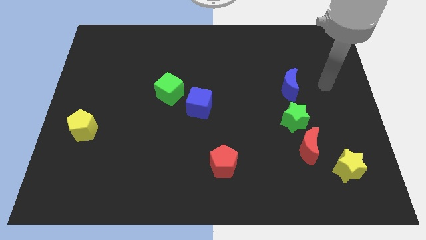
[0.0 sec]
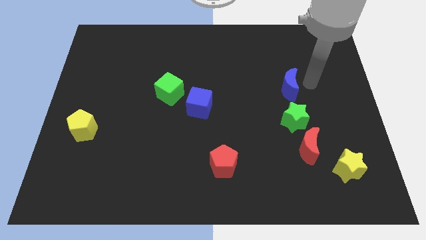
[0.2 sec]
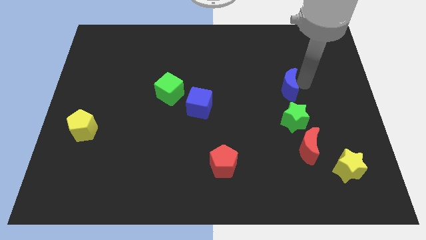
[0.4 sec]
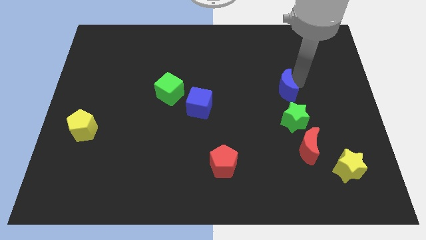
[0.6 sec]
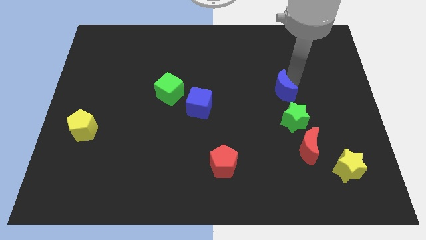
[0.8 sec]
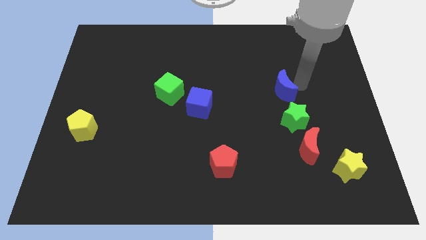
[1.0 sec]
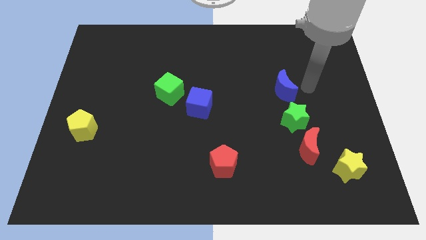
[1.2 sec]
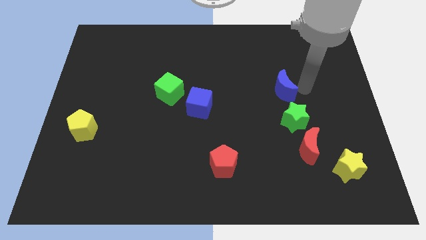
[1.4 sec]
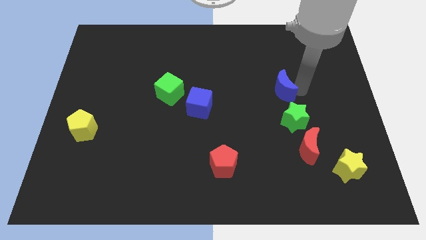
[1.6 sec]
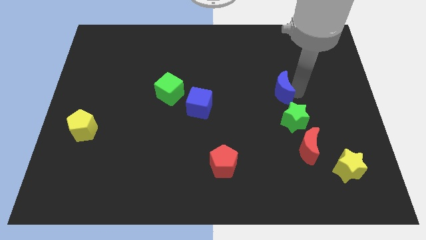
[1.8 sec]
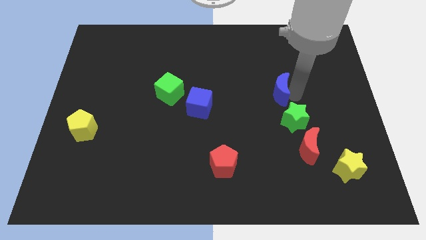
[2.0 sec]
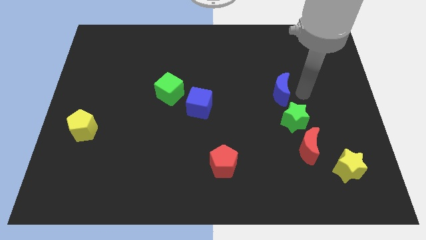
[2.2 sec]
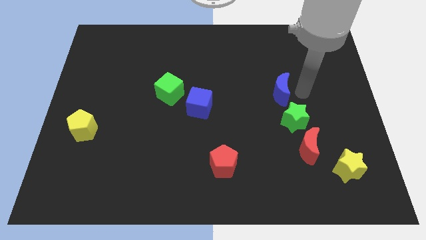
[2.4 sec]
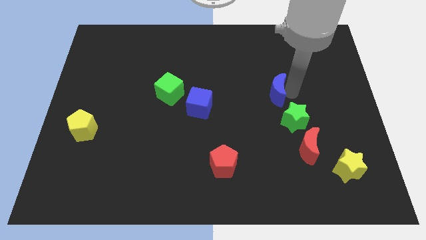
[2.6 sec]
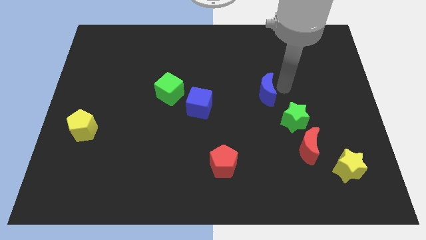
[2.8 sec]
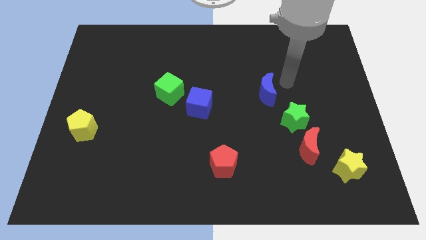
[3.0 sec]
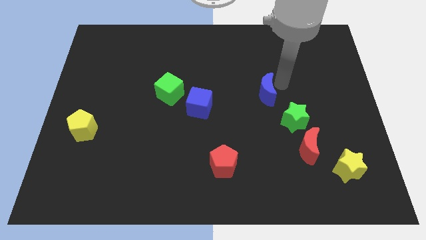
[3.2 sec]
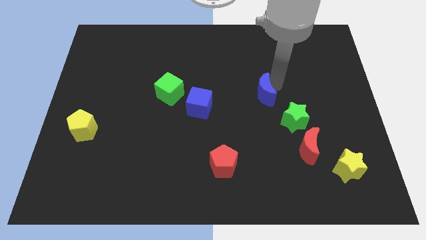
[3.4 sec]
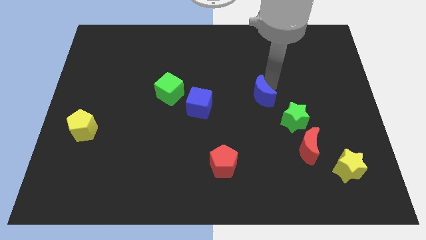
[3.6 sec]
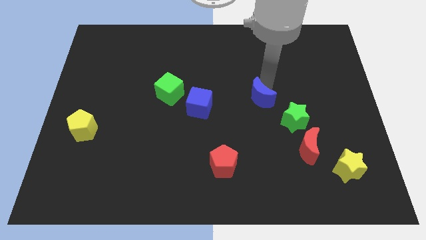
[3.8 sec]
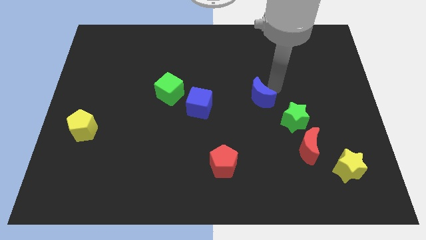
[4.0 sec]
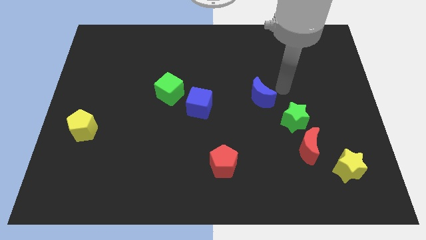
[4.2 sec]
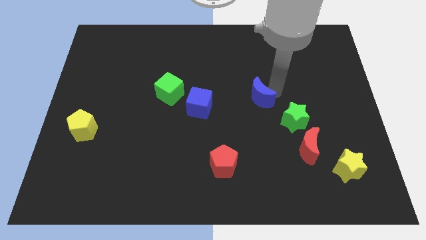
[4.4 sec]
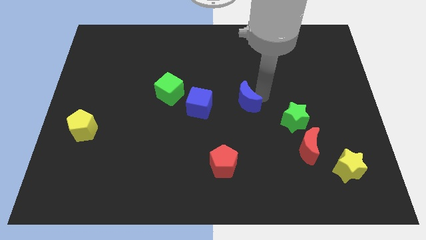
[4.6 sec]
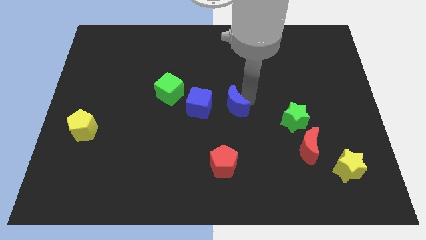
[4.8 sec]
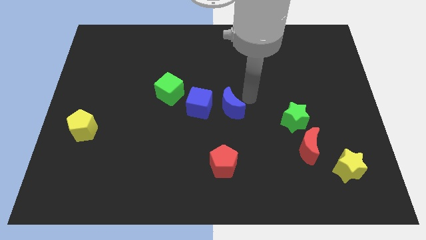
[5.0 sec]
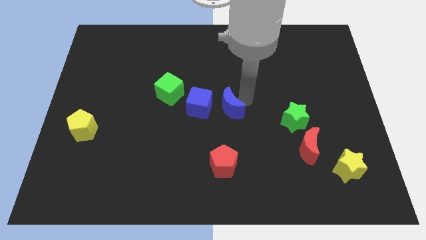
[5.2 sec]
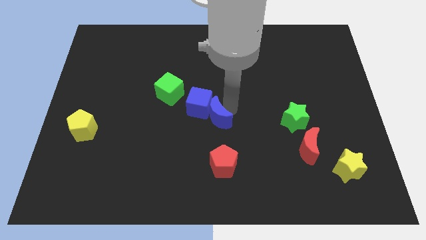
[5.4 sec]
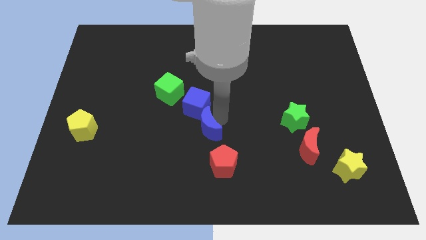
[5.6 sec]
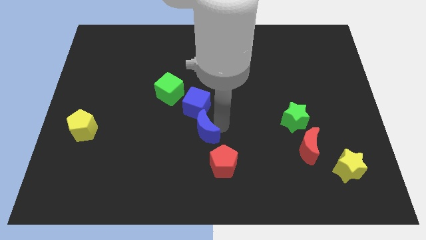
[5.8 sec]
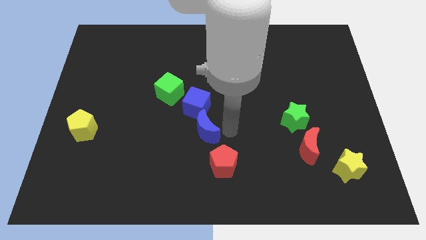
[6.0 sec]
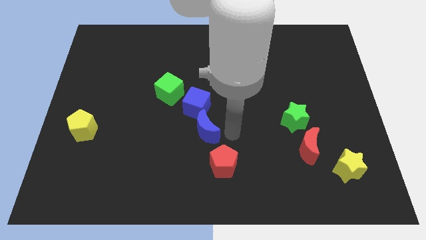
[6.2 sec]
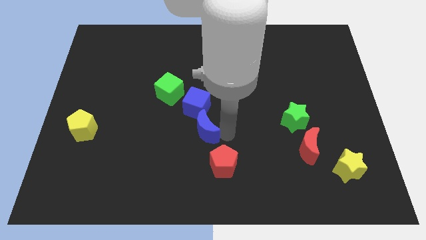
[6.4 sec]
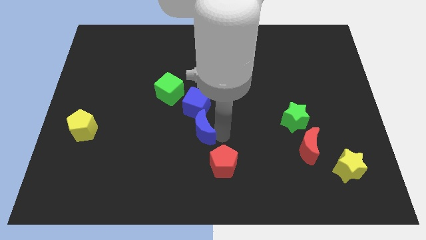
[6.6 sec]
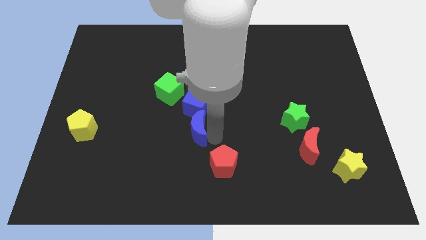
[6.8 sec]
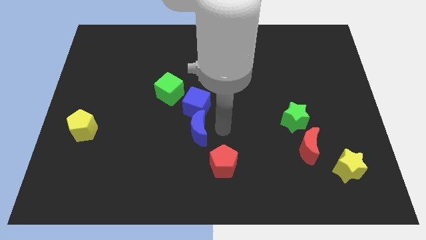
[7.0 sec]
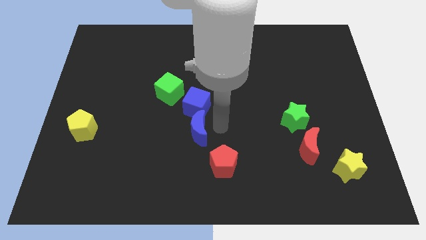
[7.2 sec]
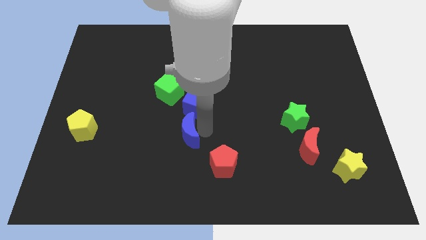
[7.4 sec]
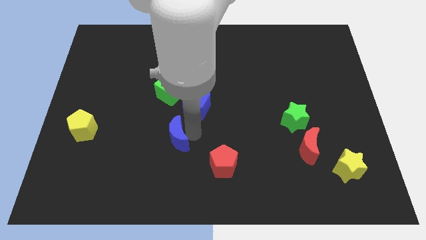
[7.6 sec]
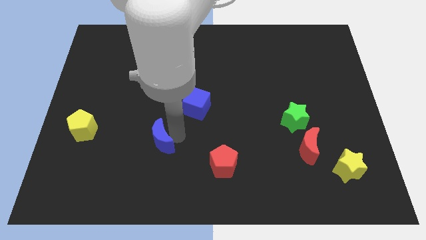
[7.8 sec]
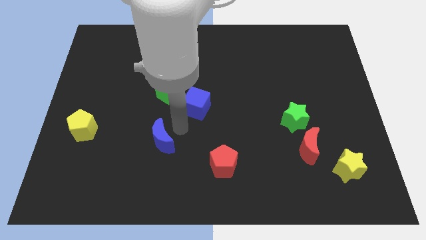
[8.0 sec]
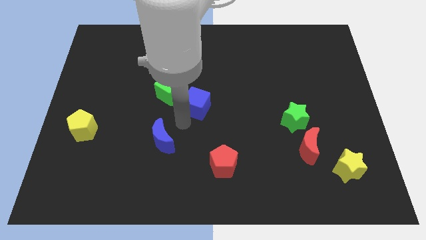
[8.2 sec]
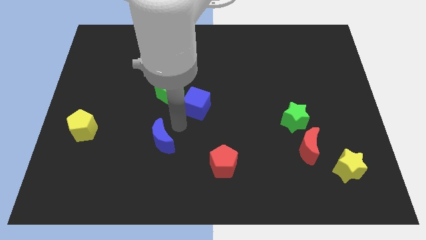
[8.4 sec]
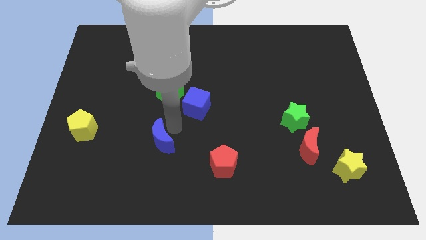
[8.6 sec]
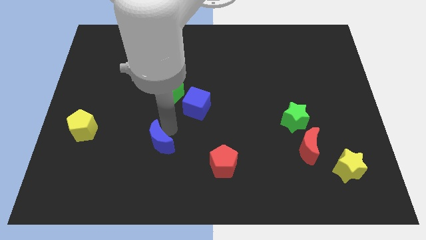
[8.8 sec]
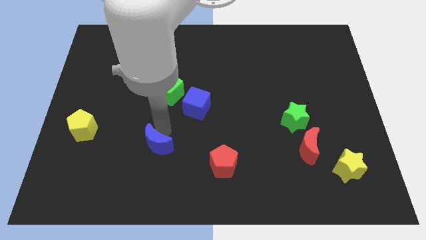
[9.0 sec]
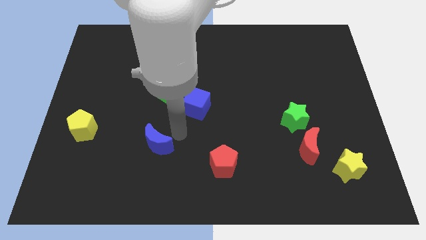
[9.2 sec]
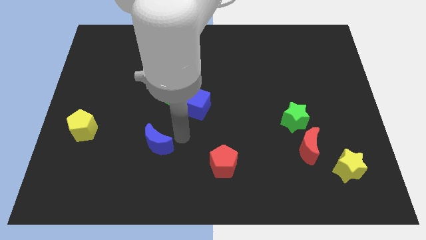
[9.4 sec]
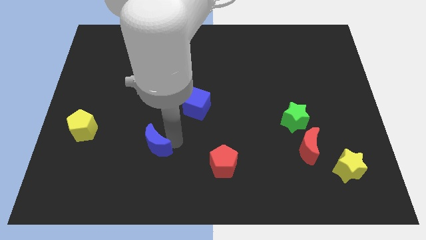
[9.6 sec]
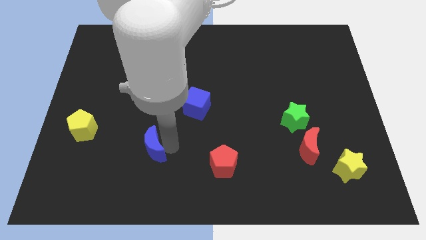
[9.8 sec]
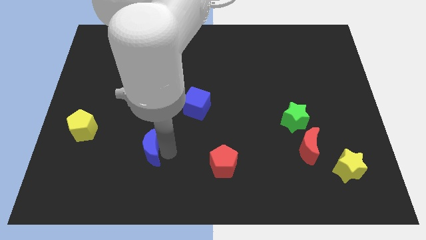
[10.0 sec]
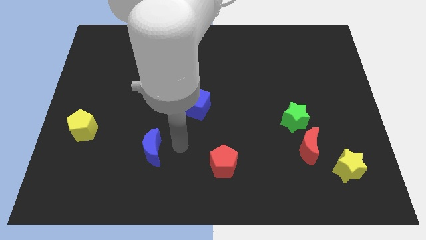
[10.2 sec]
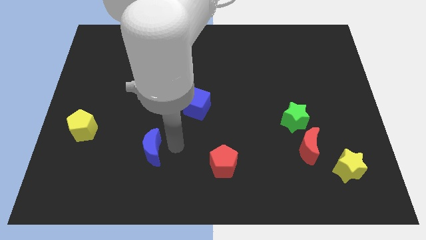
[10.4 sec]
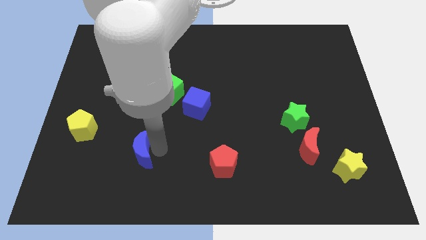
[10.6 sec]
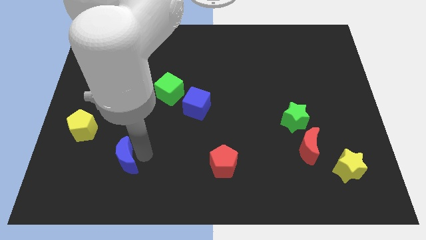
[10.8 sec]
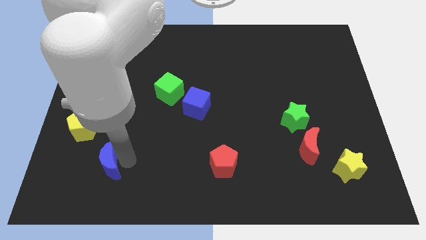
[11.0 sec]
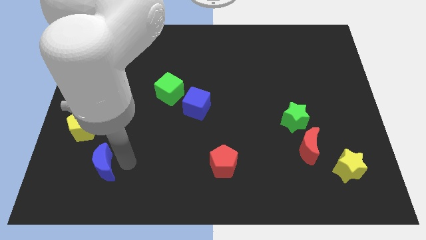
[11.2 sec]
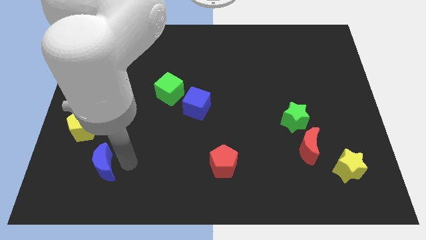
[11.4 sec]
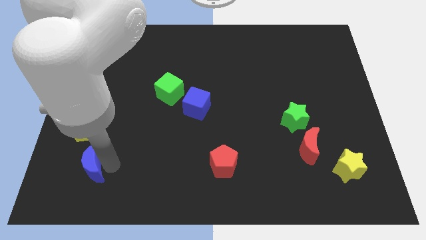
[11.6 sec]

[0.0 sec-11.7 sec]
push the blue moon to the bottom of the yellow pentagon

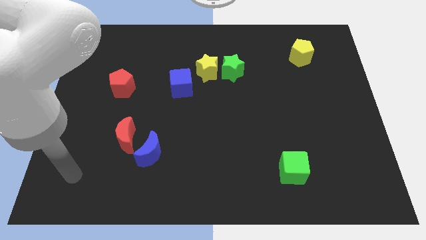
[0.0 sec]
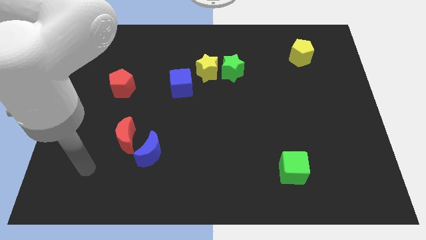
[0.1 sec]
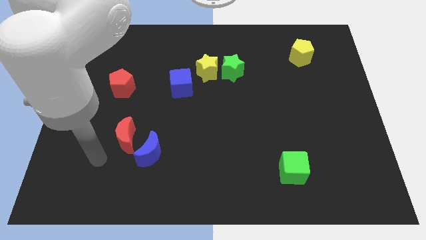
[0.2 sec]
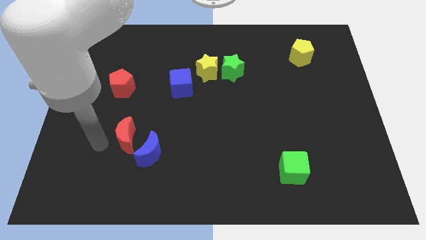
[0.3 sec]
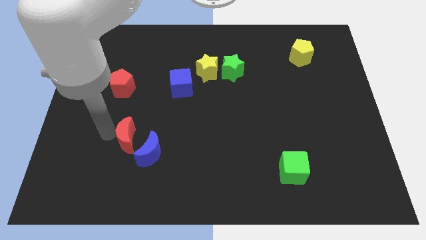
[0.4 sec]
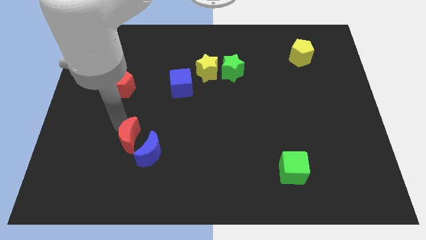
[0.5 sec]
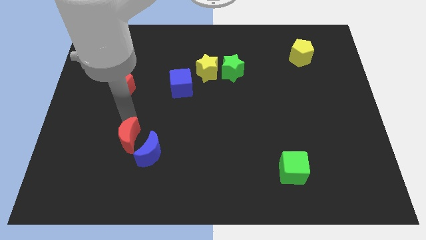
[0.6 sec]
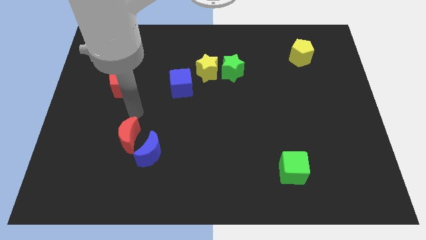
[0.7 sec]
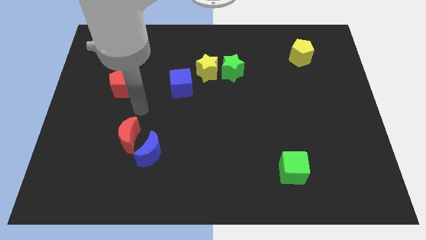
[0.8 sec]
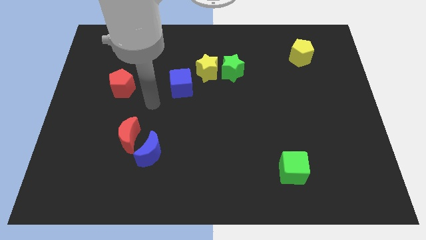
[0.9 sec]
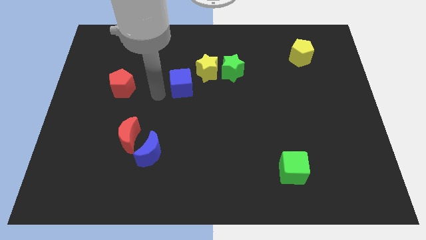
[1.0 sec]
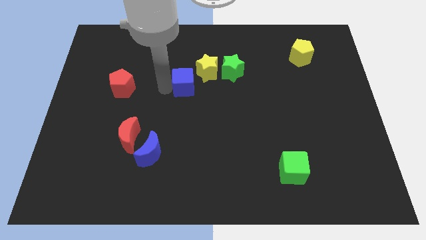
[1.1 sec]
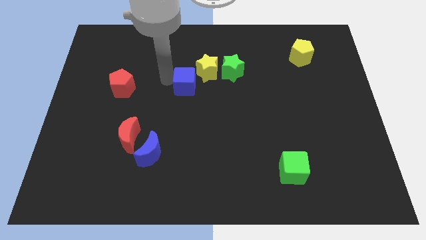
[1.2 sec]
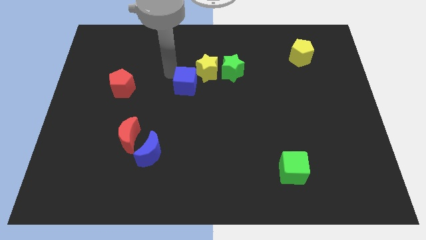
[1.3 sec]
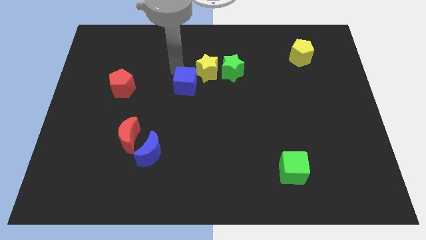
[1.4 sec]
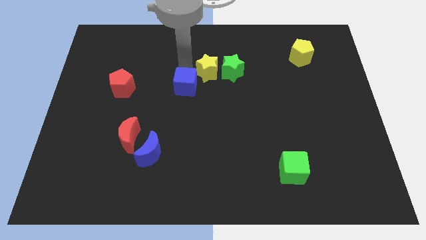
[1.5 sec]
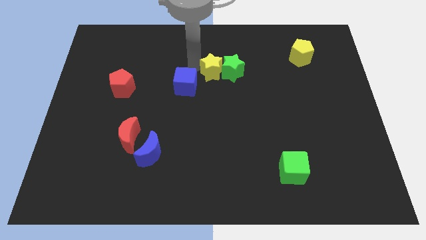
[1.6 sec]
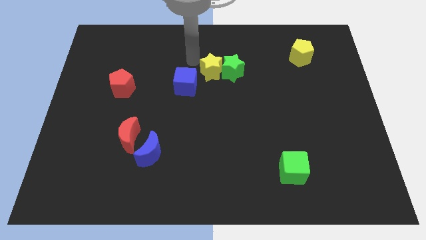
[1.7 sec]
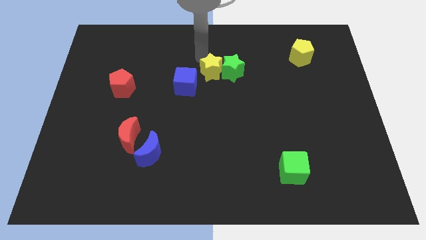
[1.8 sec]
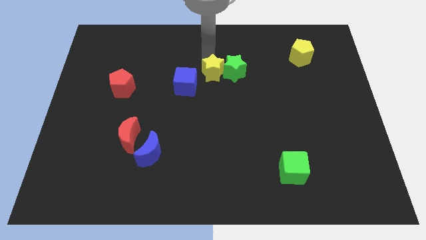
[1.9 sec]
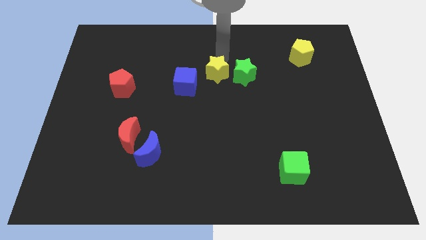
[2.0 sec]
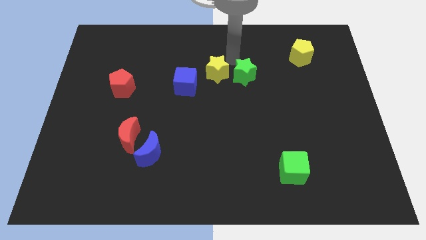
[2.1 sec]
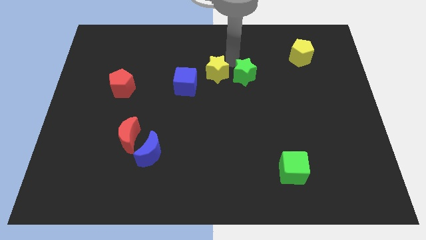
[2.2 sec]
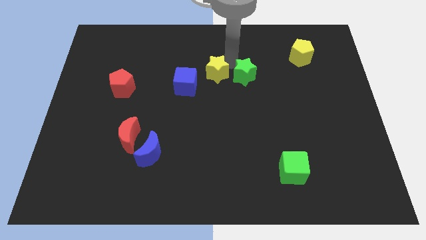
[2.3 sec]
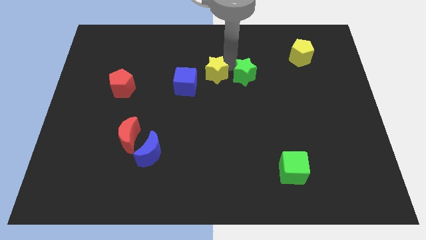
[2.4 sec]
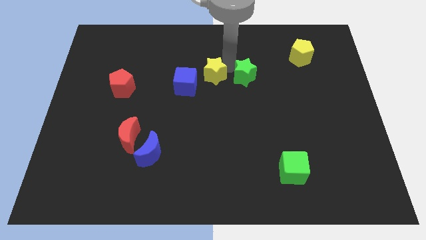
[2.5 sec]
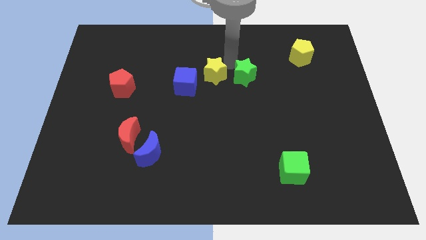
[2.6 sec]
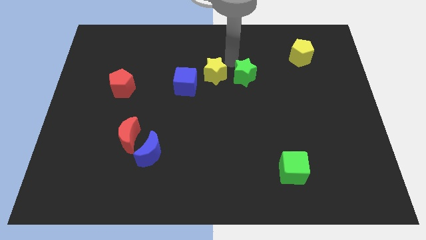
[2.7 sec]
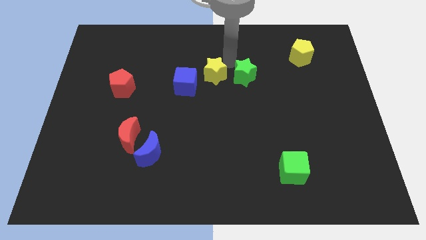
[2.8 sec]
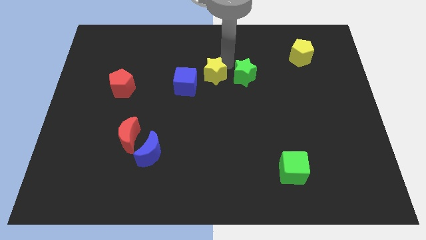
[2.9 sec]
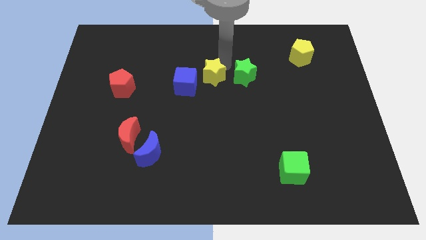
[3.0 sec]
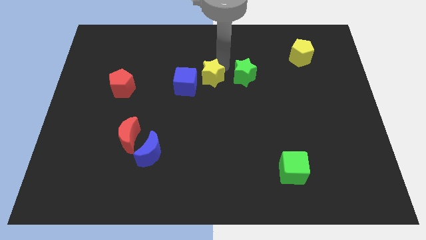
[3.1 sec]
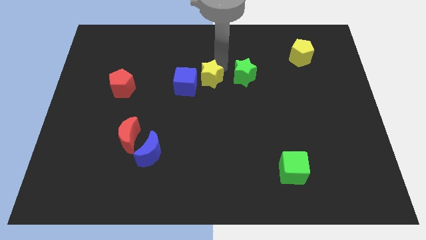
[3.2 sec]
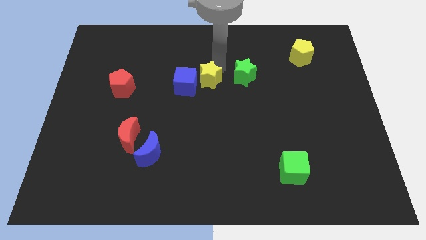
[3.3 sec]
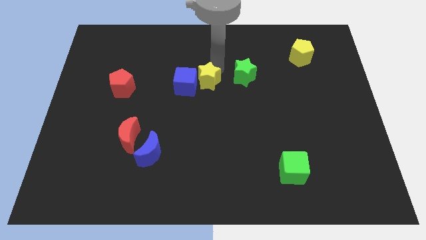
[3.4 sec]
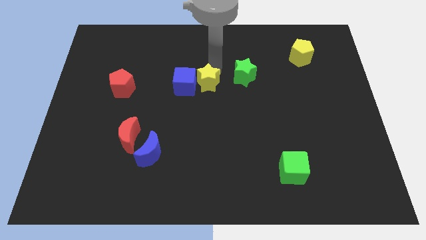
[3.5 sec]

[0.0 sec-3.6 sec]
slide the yellow star to the bottom right of the blue cube
